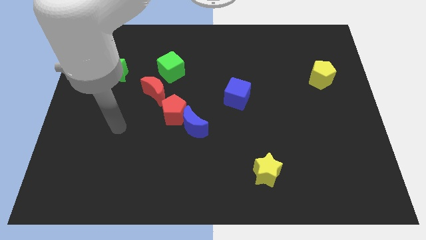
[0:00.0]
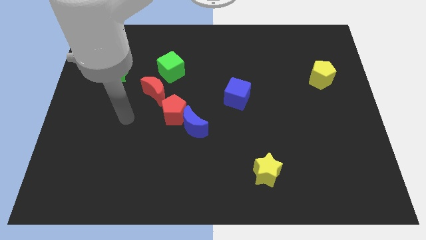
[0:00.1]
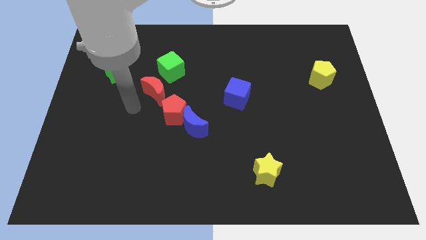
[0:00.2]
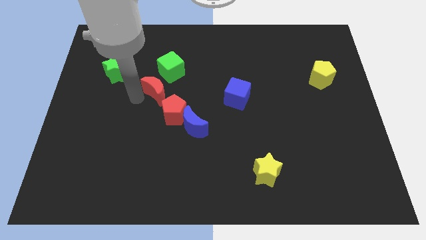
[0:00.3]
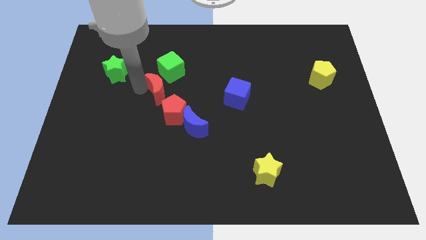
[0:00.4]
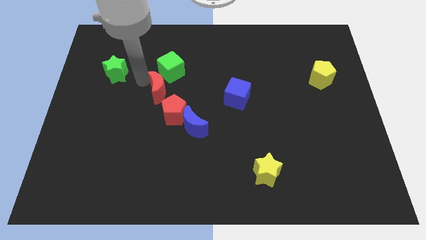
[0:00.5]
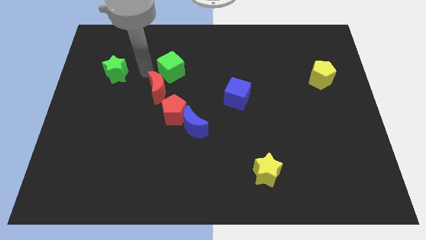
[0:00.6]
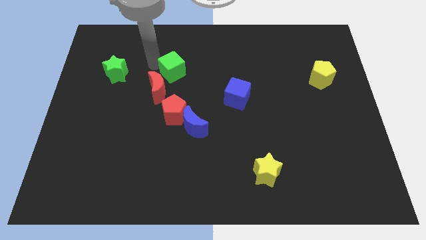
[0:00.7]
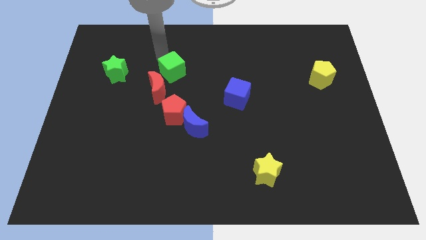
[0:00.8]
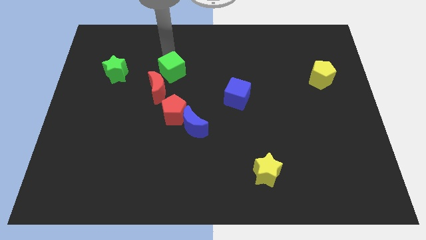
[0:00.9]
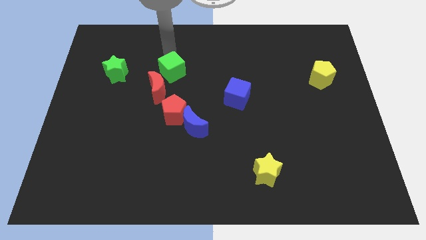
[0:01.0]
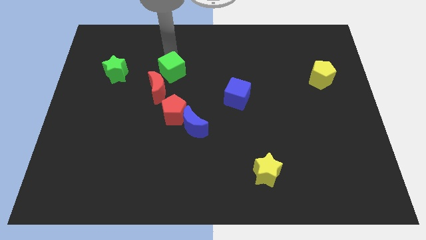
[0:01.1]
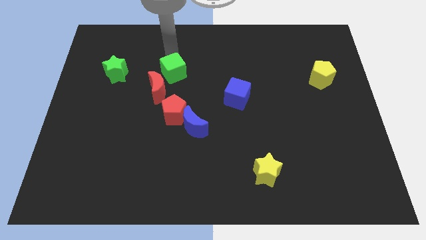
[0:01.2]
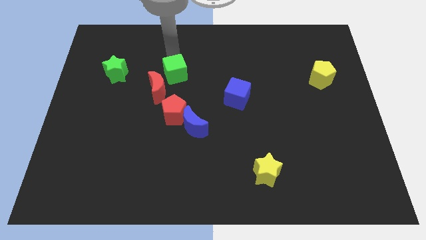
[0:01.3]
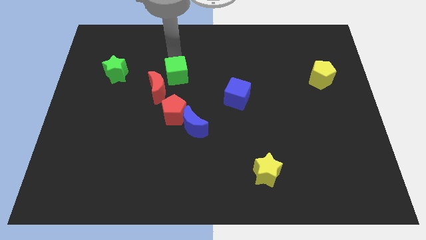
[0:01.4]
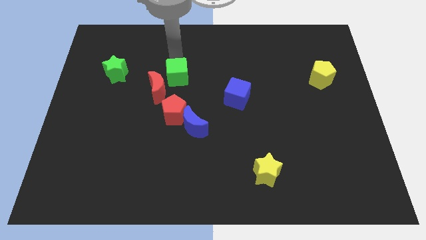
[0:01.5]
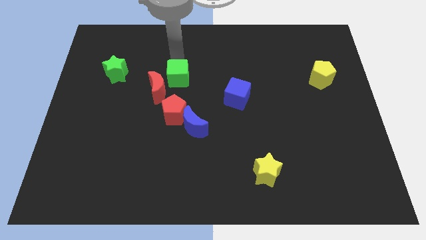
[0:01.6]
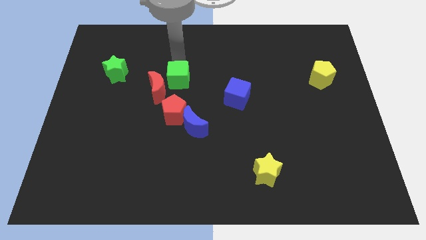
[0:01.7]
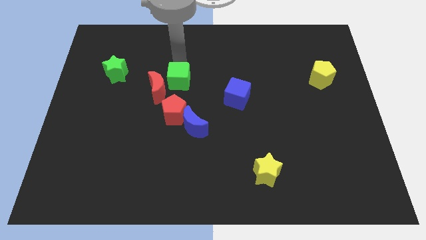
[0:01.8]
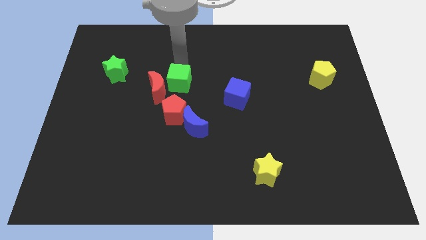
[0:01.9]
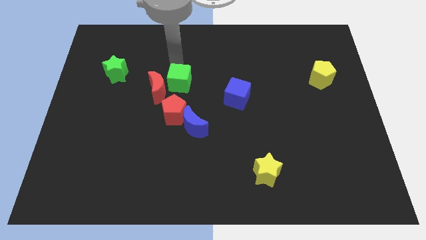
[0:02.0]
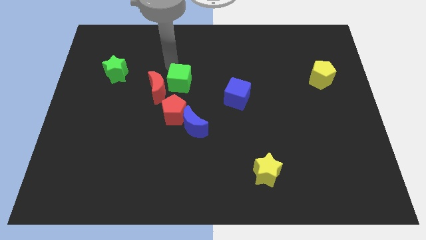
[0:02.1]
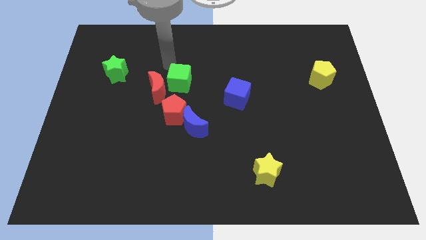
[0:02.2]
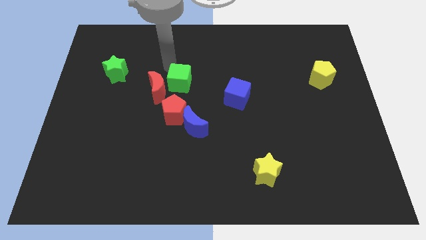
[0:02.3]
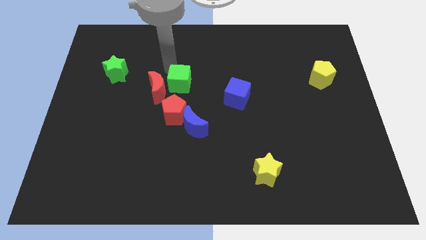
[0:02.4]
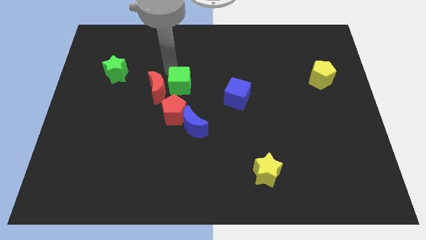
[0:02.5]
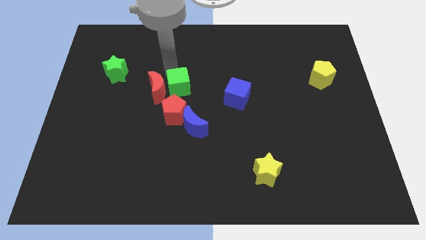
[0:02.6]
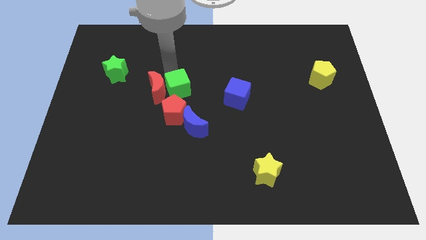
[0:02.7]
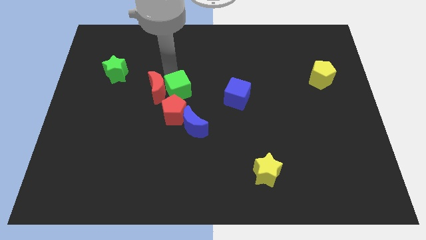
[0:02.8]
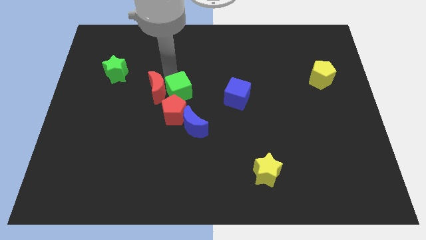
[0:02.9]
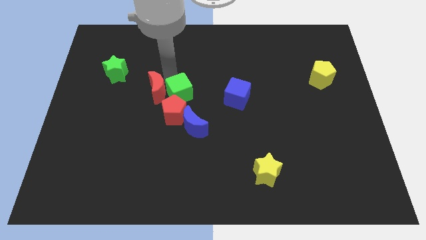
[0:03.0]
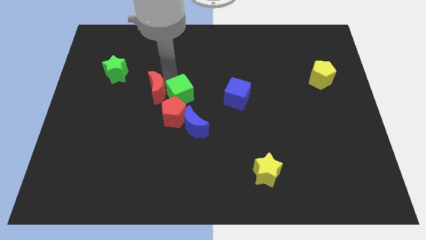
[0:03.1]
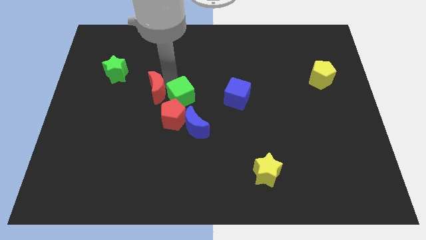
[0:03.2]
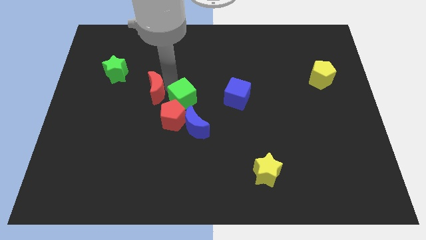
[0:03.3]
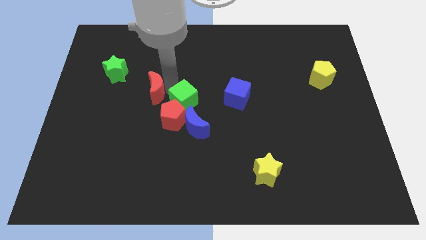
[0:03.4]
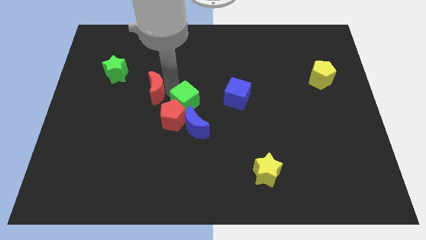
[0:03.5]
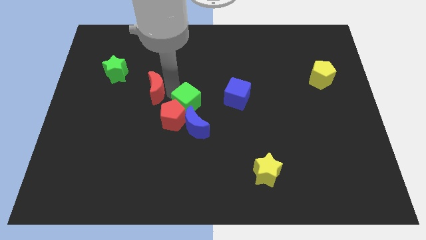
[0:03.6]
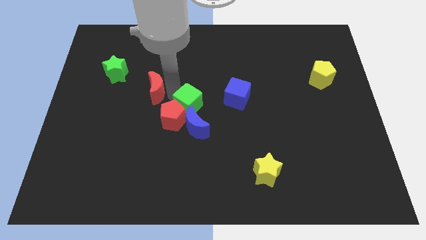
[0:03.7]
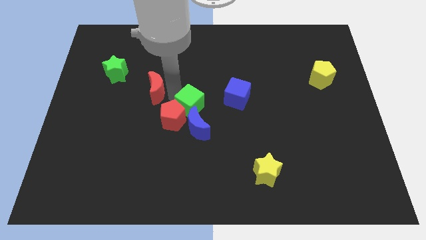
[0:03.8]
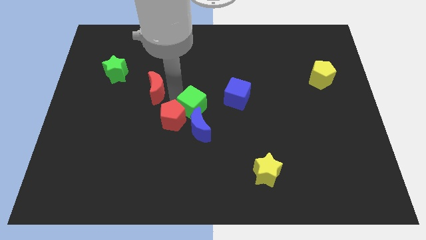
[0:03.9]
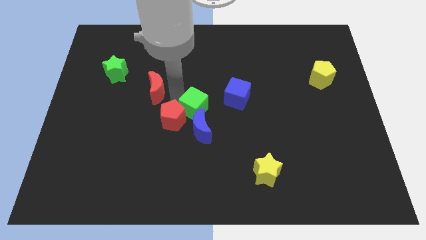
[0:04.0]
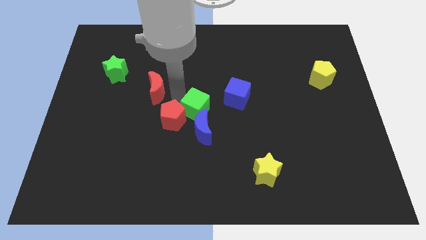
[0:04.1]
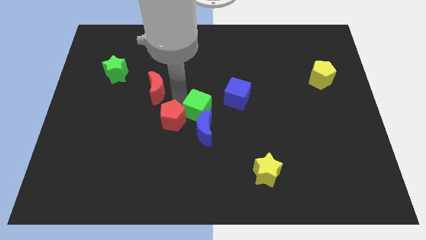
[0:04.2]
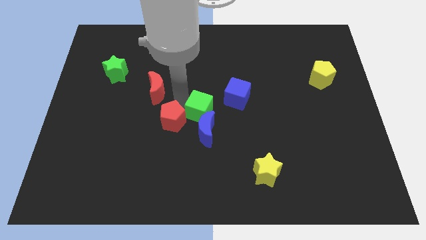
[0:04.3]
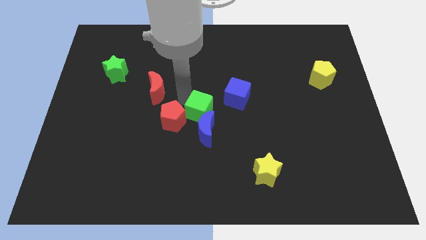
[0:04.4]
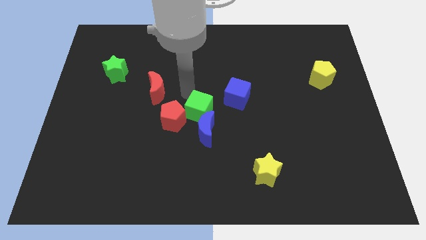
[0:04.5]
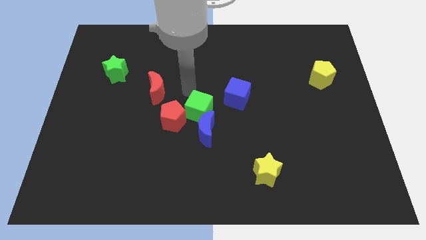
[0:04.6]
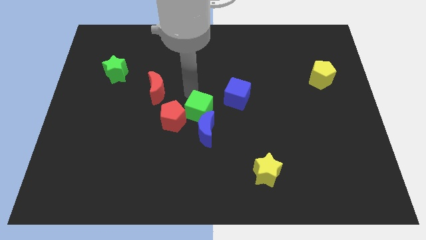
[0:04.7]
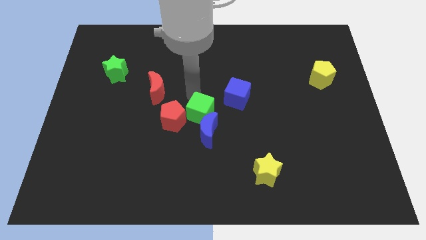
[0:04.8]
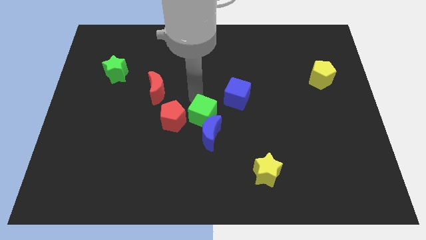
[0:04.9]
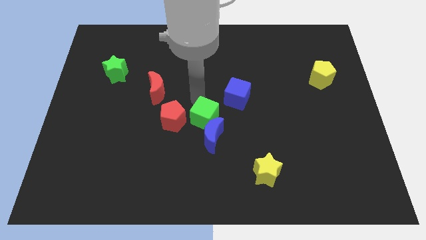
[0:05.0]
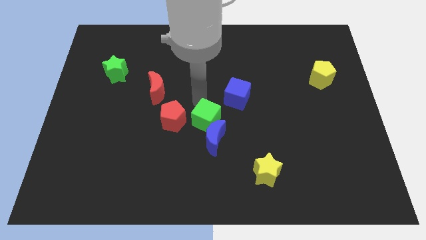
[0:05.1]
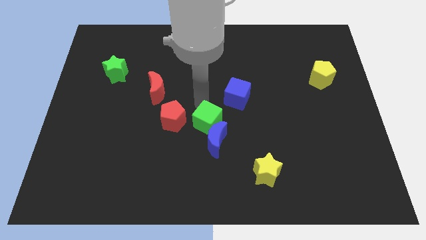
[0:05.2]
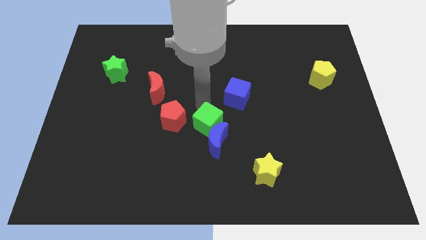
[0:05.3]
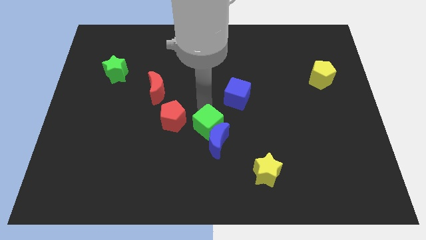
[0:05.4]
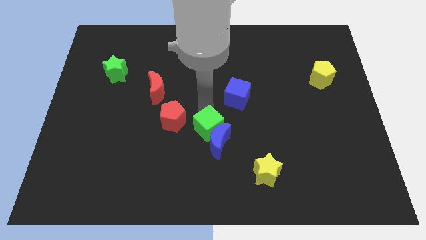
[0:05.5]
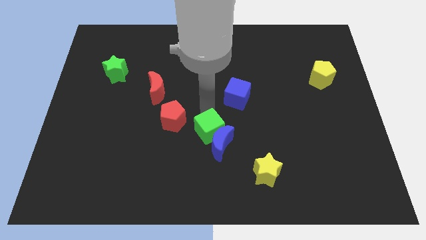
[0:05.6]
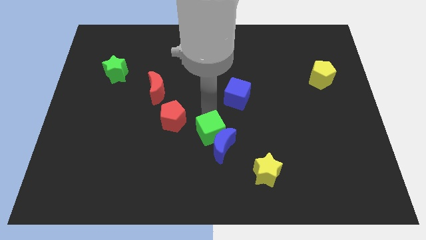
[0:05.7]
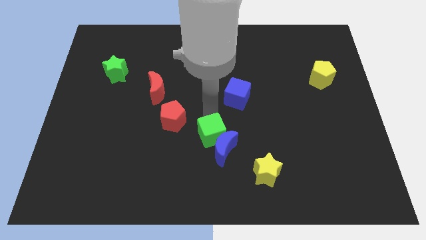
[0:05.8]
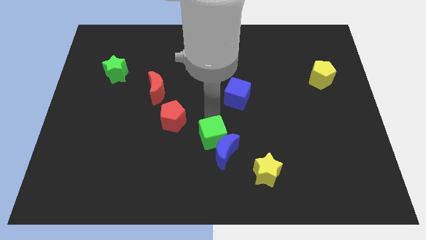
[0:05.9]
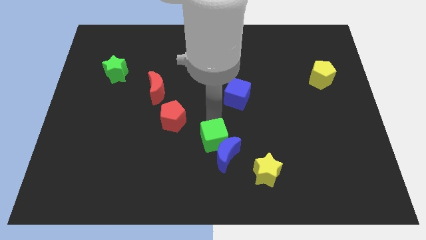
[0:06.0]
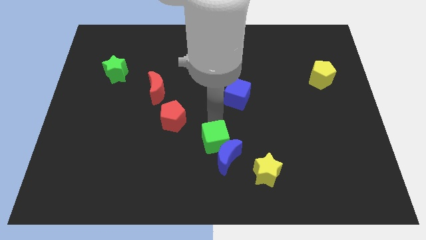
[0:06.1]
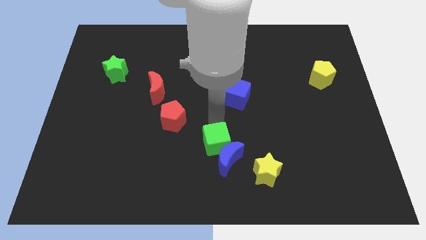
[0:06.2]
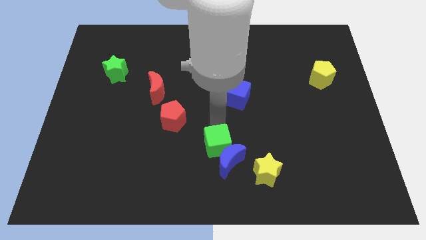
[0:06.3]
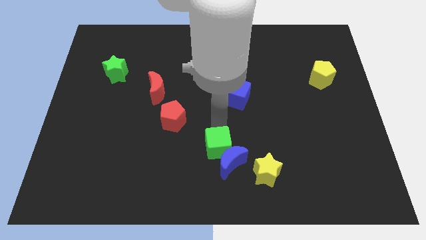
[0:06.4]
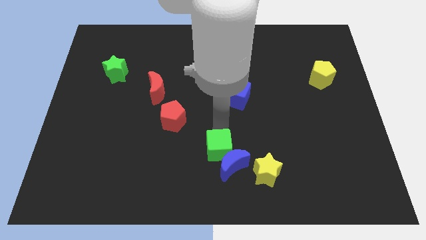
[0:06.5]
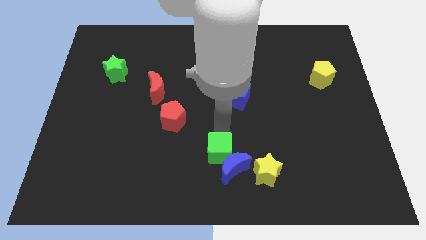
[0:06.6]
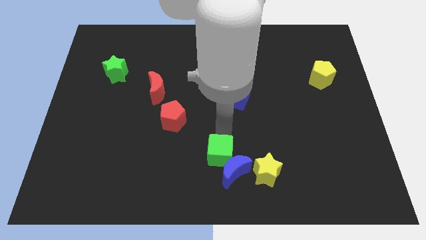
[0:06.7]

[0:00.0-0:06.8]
put the green cube to the bottom

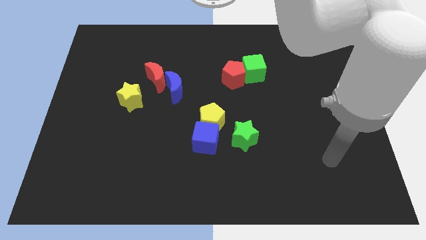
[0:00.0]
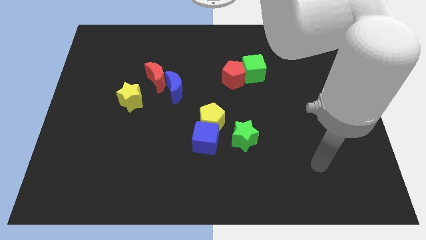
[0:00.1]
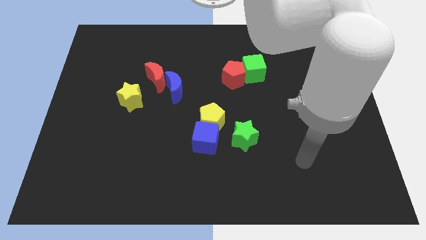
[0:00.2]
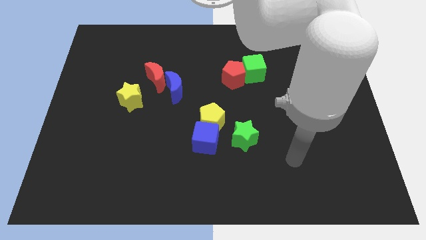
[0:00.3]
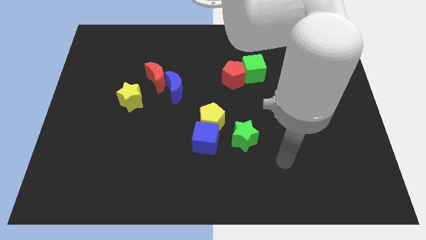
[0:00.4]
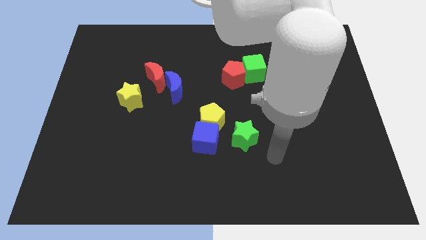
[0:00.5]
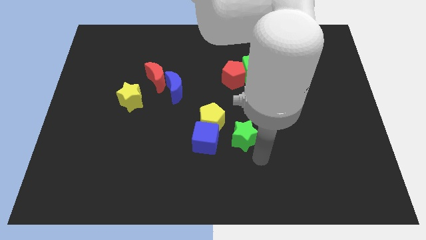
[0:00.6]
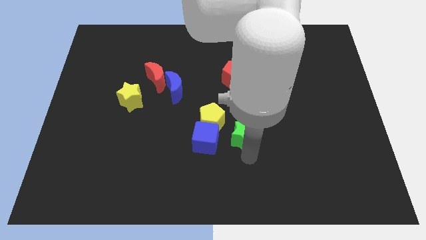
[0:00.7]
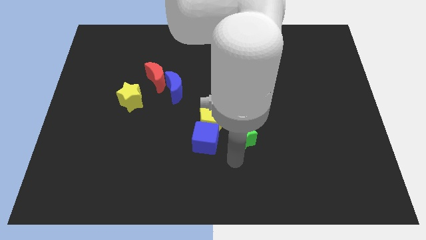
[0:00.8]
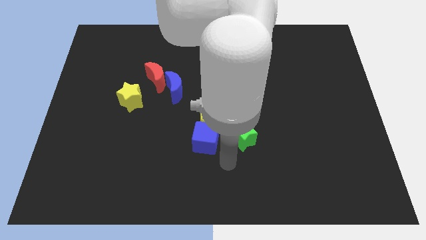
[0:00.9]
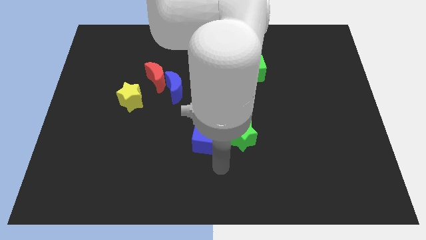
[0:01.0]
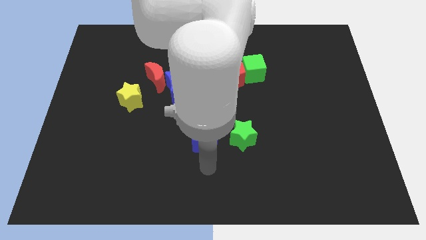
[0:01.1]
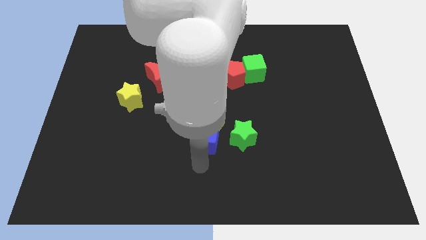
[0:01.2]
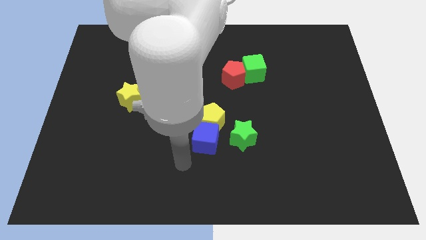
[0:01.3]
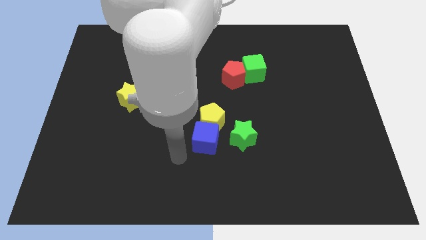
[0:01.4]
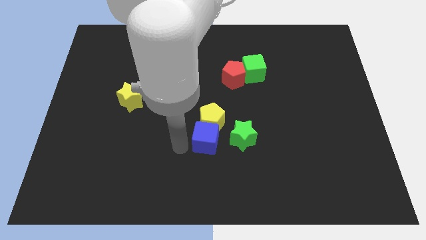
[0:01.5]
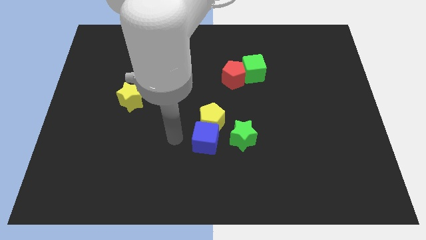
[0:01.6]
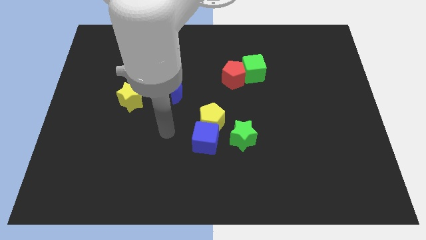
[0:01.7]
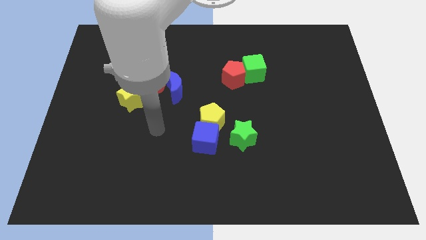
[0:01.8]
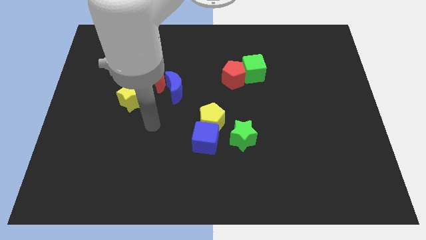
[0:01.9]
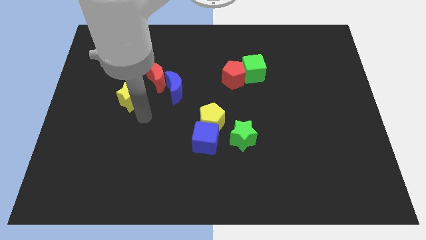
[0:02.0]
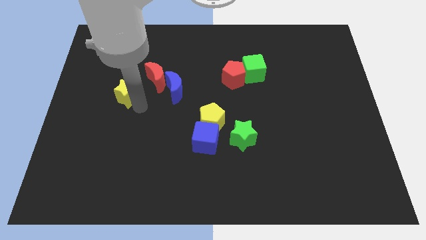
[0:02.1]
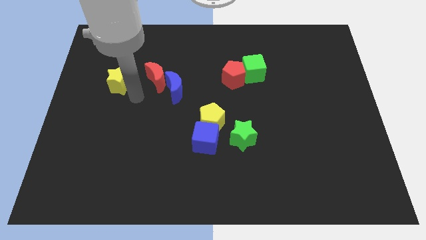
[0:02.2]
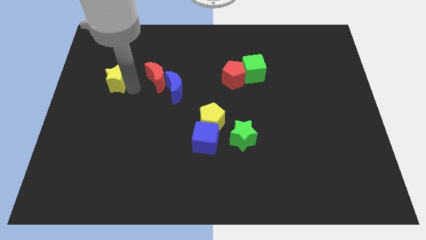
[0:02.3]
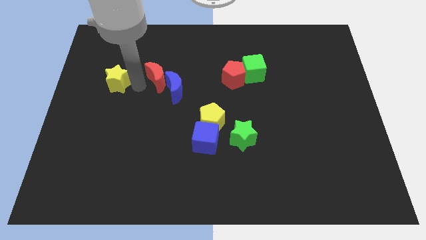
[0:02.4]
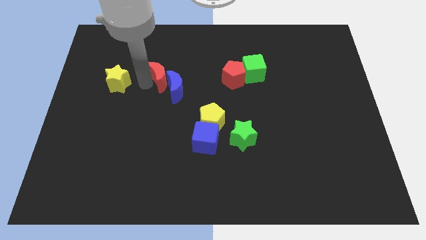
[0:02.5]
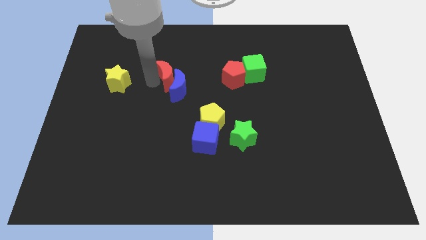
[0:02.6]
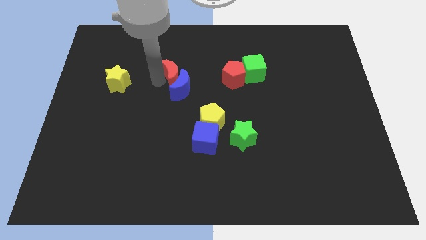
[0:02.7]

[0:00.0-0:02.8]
slide the red moon to the center
